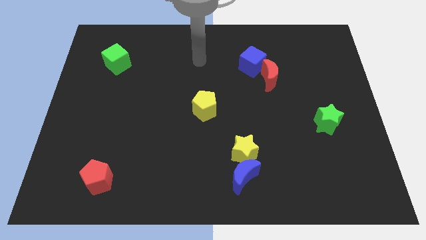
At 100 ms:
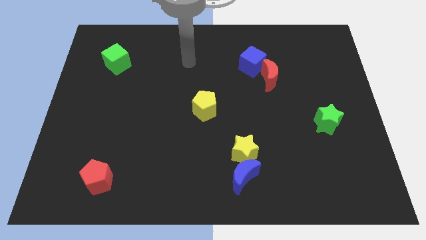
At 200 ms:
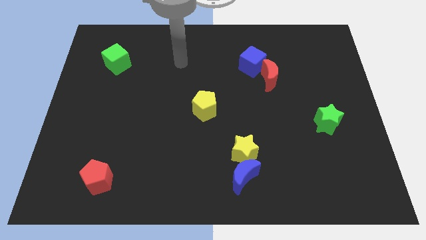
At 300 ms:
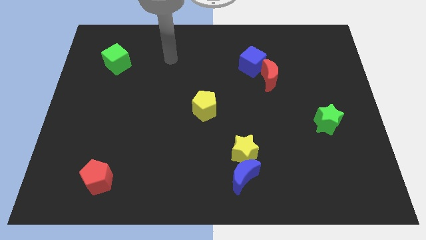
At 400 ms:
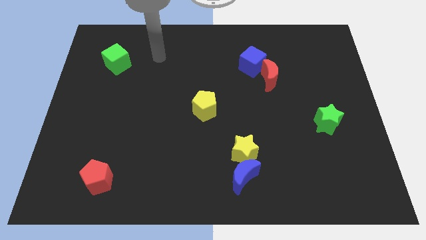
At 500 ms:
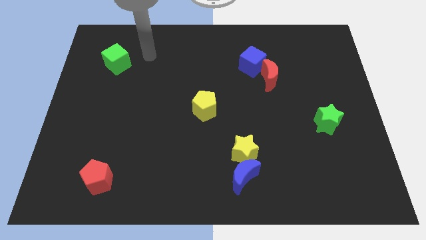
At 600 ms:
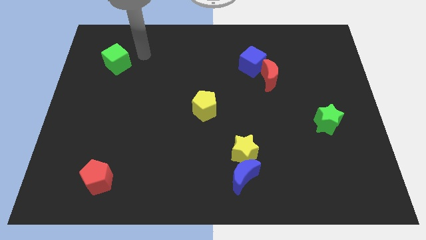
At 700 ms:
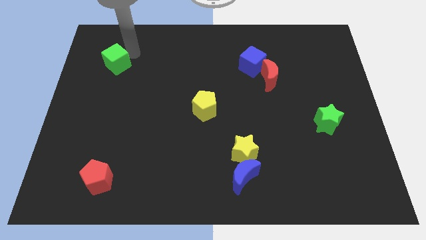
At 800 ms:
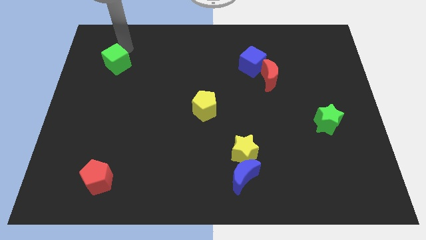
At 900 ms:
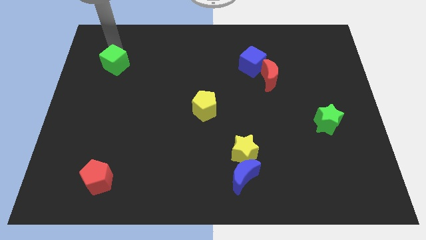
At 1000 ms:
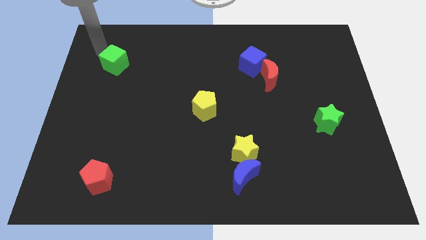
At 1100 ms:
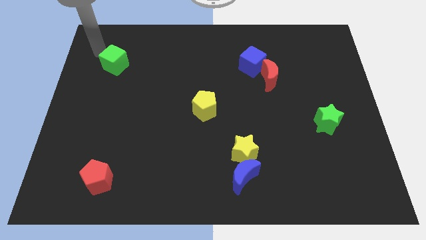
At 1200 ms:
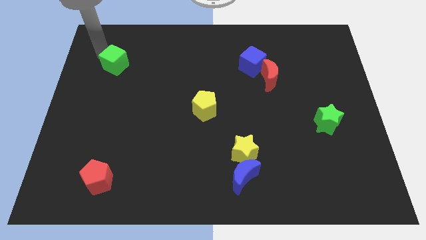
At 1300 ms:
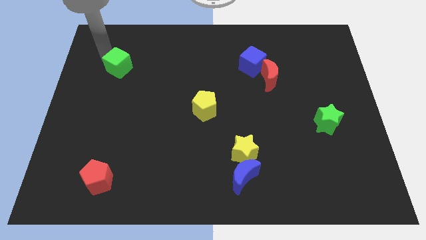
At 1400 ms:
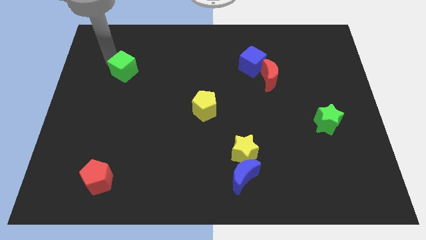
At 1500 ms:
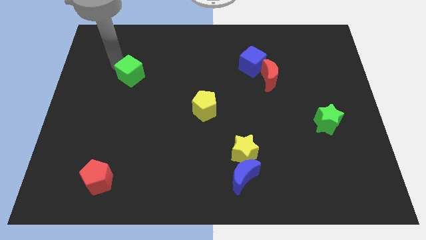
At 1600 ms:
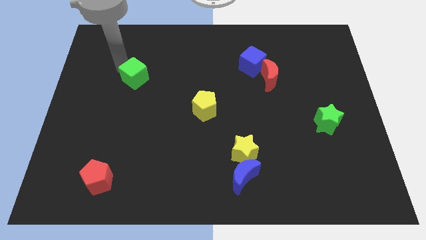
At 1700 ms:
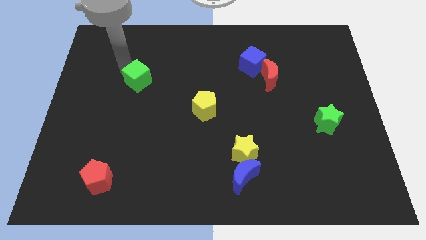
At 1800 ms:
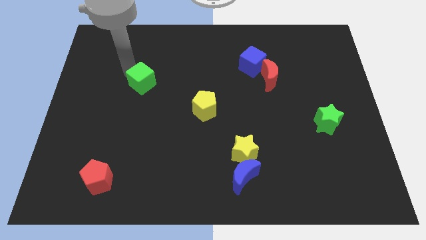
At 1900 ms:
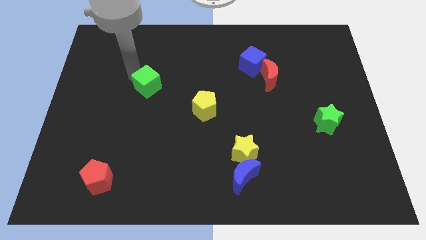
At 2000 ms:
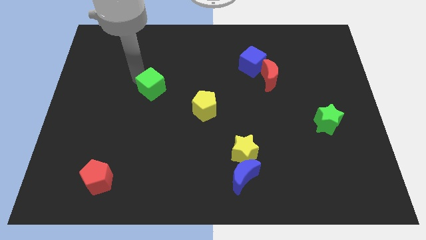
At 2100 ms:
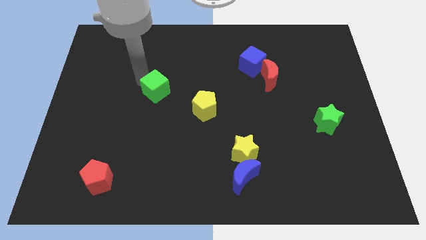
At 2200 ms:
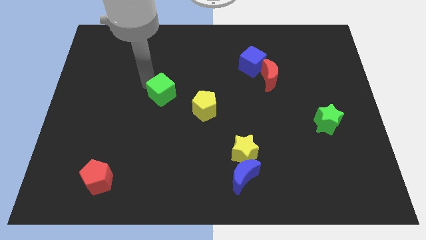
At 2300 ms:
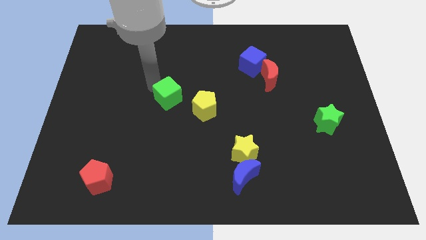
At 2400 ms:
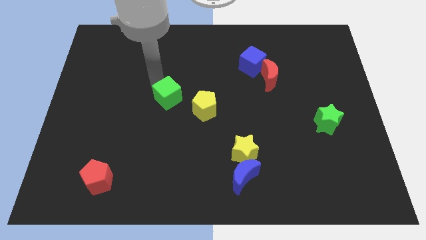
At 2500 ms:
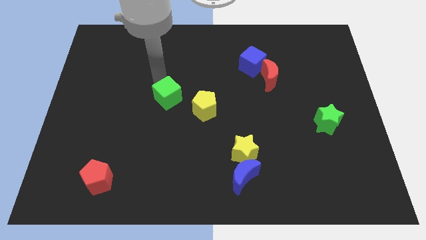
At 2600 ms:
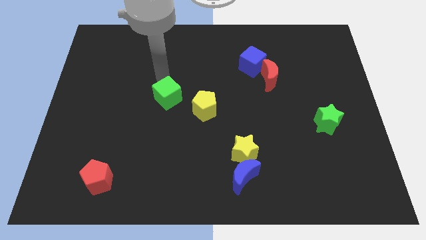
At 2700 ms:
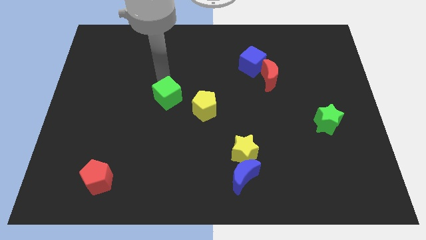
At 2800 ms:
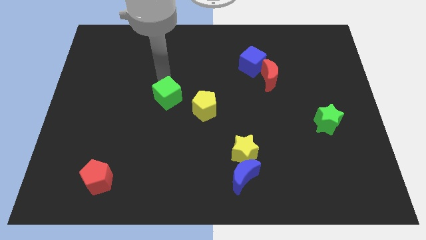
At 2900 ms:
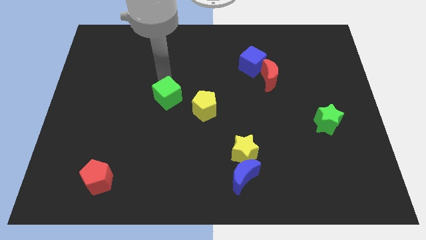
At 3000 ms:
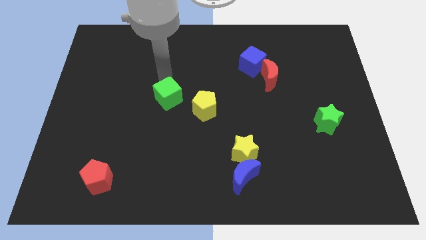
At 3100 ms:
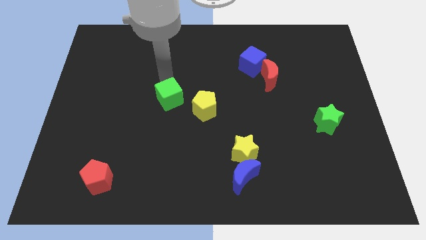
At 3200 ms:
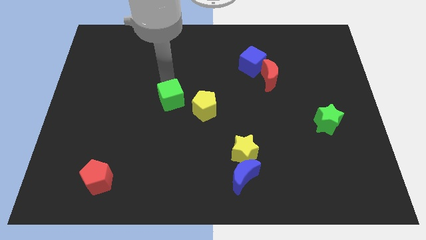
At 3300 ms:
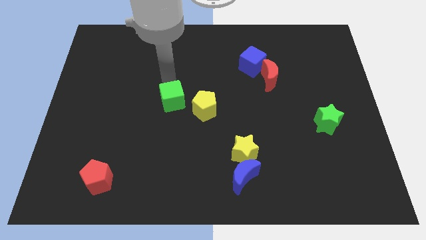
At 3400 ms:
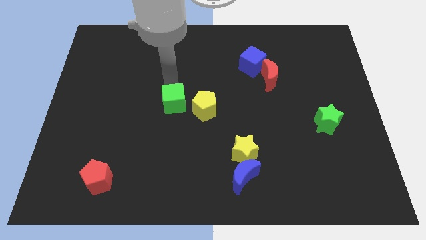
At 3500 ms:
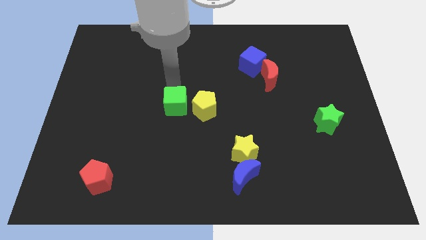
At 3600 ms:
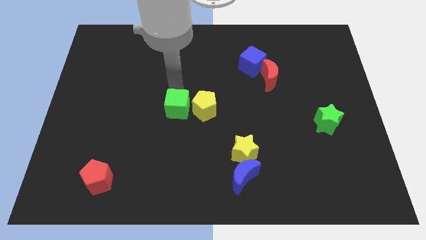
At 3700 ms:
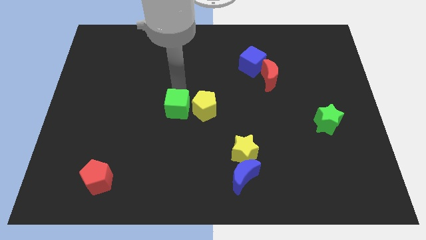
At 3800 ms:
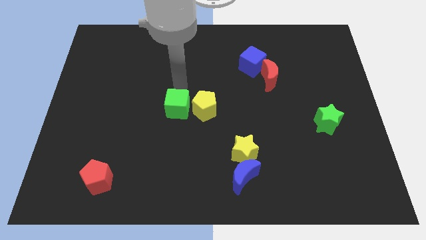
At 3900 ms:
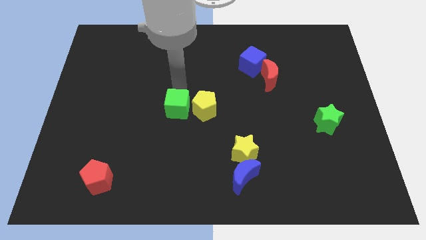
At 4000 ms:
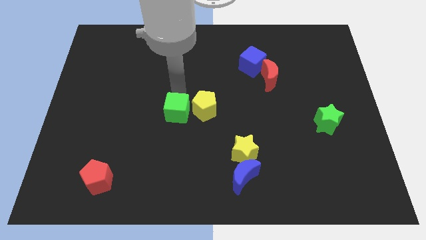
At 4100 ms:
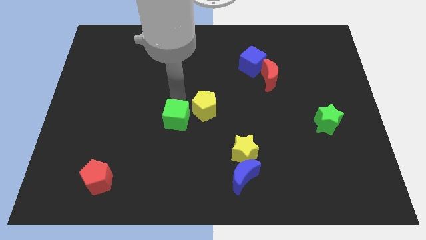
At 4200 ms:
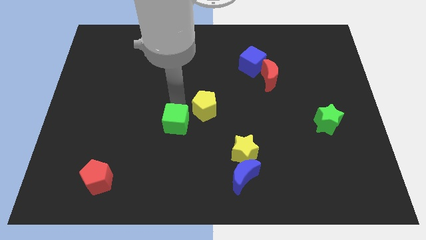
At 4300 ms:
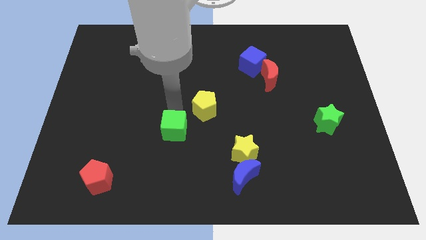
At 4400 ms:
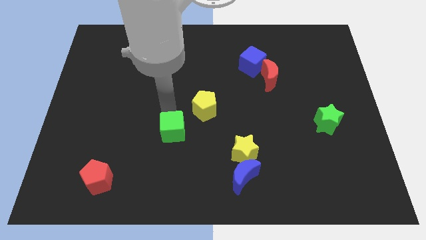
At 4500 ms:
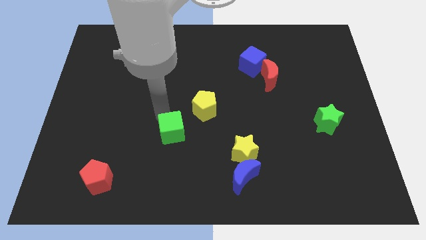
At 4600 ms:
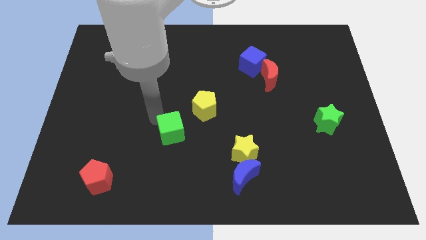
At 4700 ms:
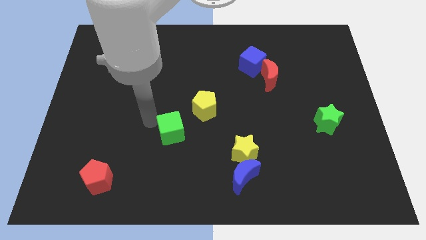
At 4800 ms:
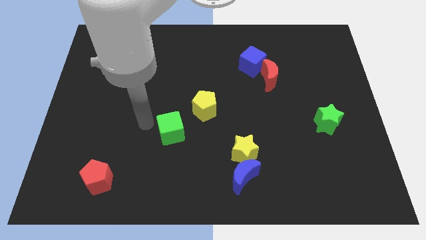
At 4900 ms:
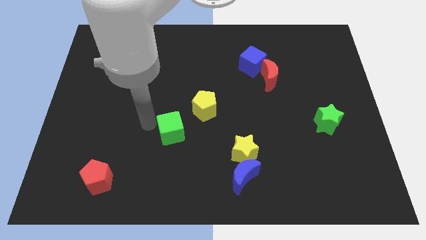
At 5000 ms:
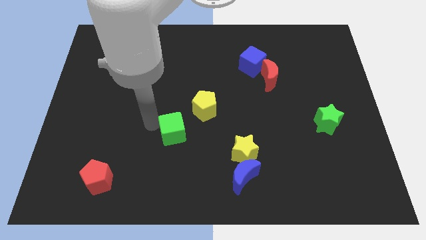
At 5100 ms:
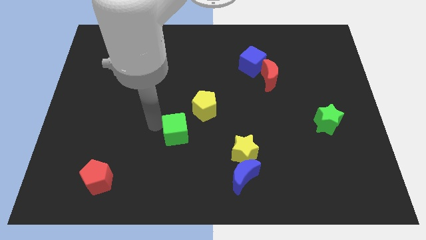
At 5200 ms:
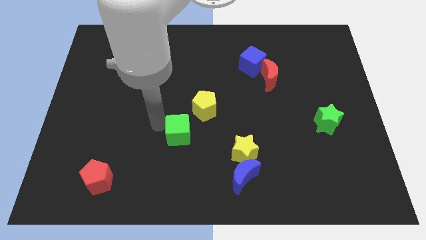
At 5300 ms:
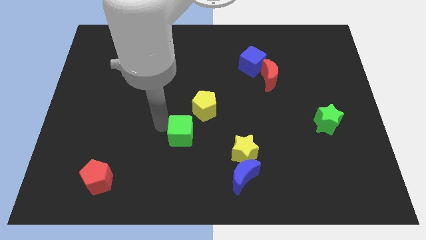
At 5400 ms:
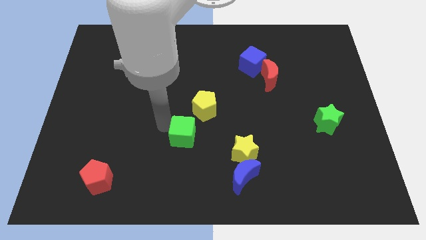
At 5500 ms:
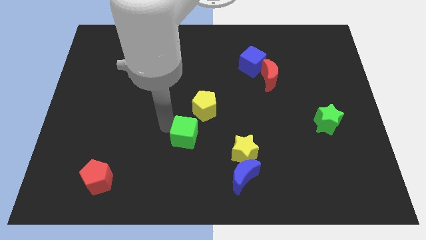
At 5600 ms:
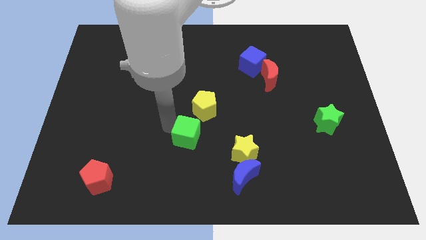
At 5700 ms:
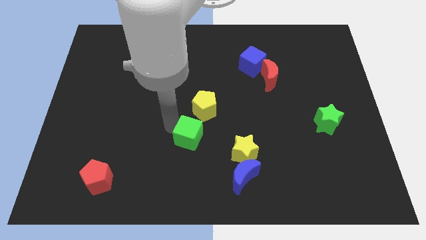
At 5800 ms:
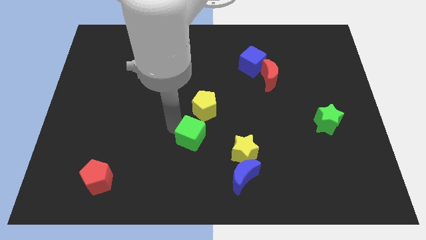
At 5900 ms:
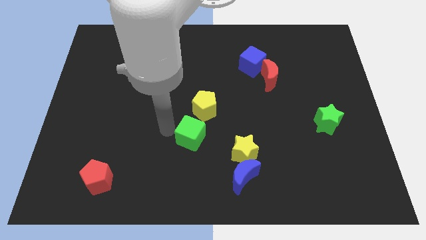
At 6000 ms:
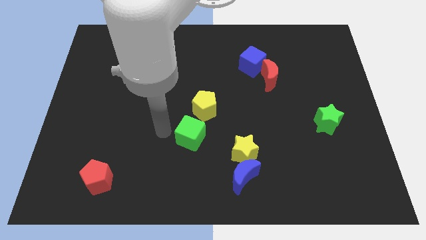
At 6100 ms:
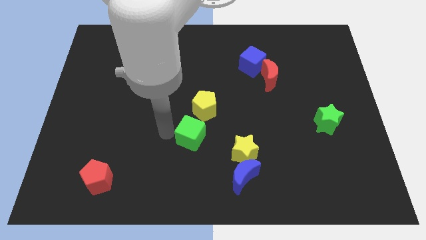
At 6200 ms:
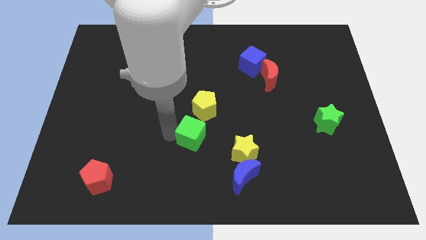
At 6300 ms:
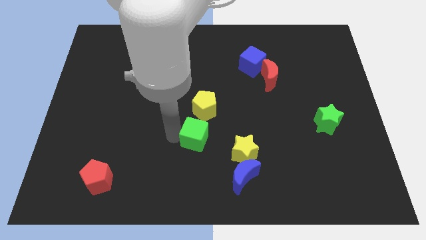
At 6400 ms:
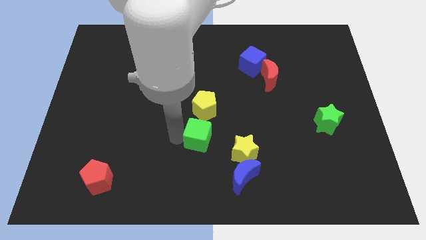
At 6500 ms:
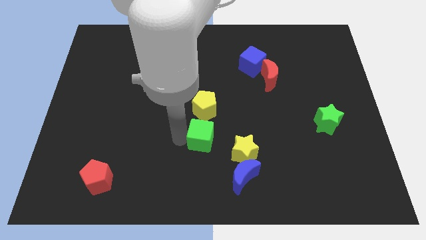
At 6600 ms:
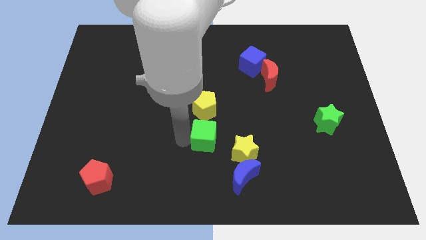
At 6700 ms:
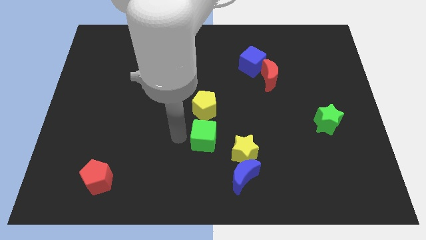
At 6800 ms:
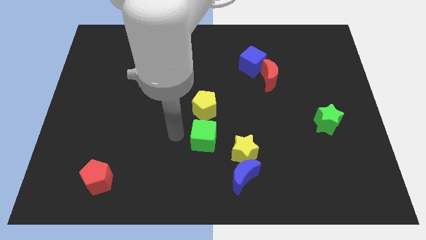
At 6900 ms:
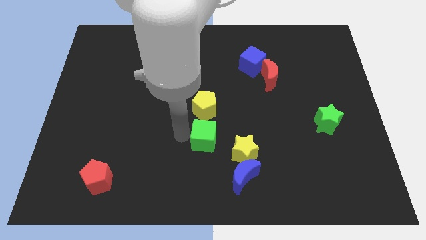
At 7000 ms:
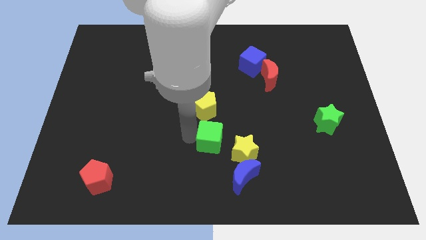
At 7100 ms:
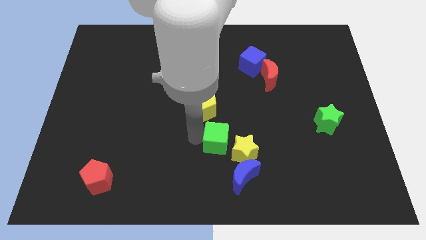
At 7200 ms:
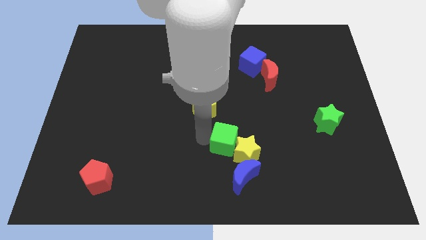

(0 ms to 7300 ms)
put the green cube towards the yellow star

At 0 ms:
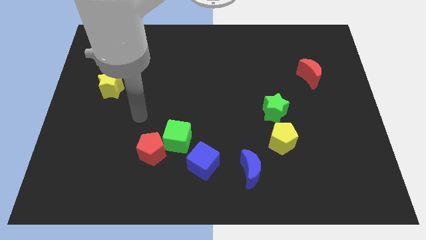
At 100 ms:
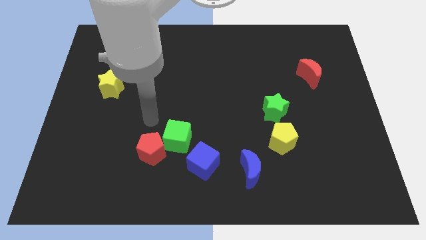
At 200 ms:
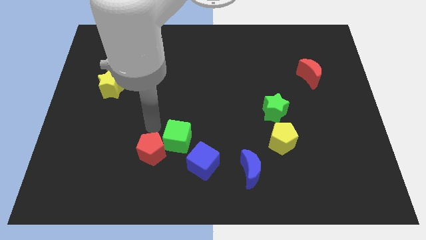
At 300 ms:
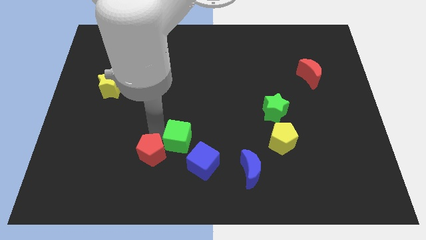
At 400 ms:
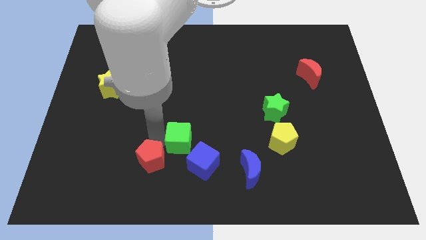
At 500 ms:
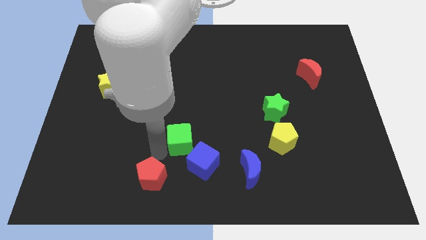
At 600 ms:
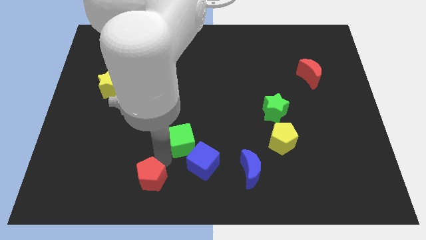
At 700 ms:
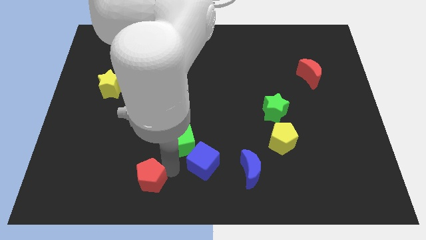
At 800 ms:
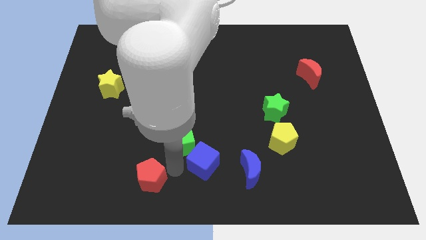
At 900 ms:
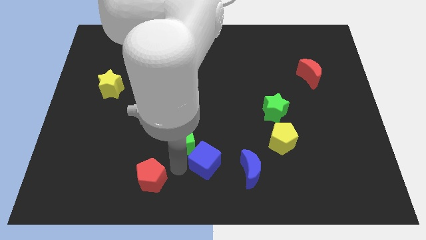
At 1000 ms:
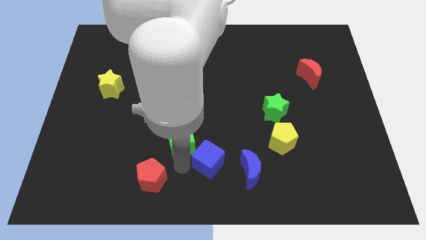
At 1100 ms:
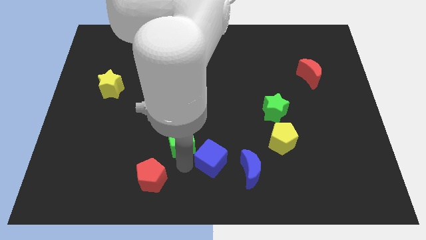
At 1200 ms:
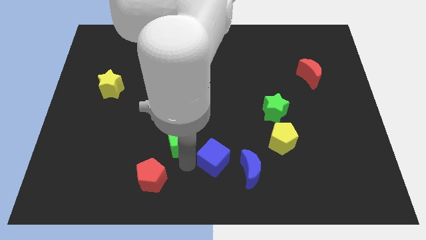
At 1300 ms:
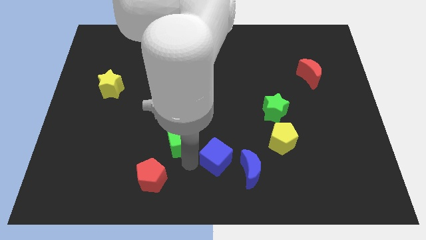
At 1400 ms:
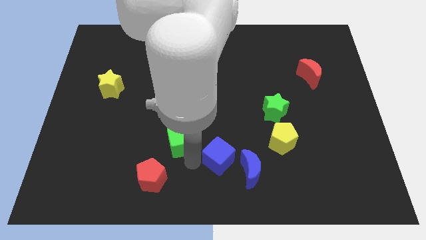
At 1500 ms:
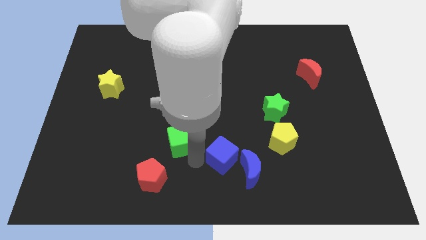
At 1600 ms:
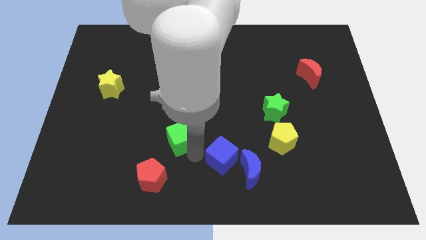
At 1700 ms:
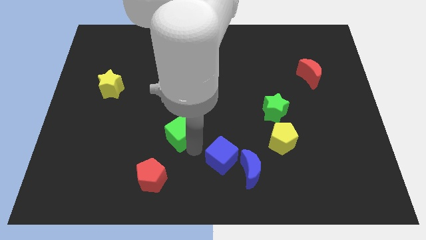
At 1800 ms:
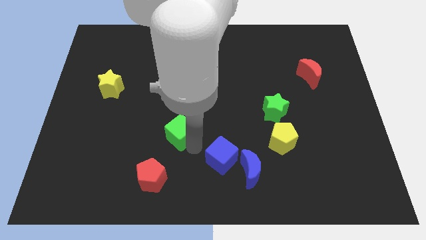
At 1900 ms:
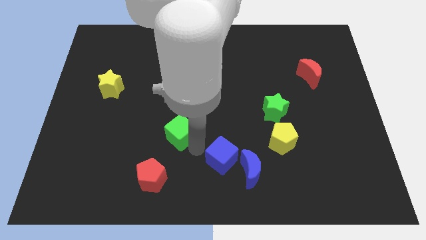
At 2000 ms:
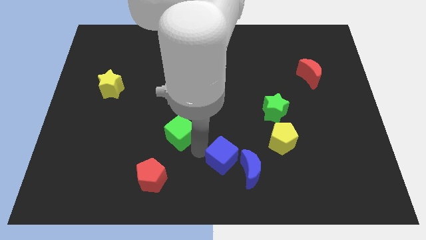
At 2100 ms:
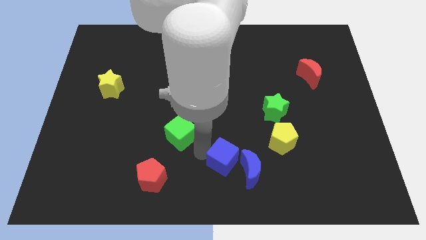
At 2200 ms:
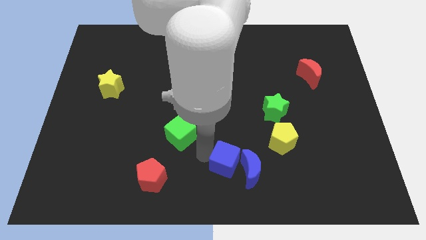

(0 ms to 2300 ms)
move the blue cube next to the blue moon
